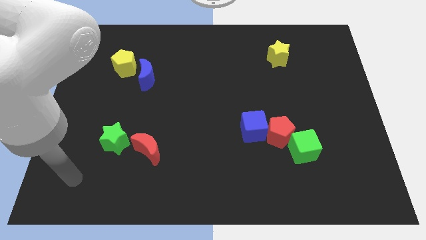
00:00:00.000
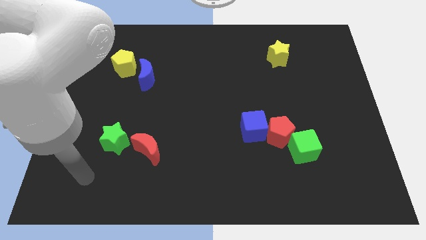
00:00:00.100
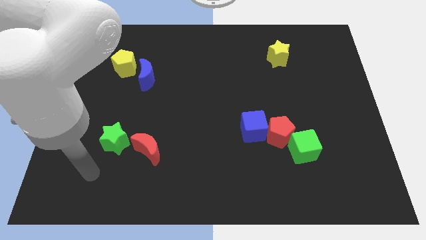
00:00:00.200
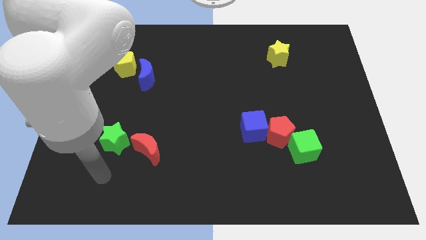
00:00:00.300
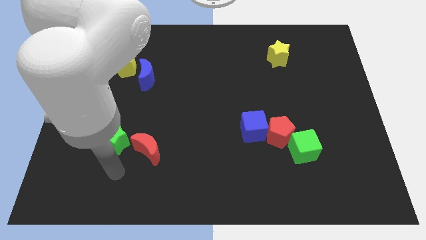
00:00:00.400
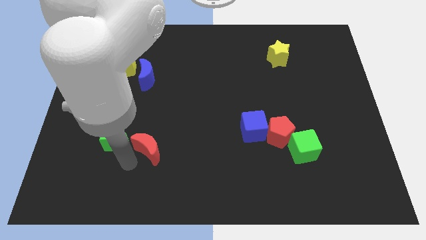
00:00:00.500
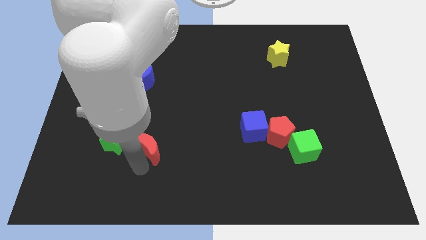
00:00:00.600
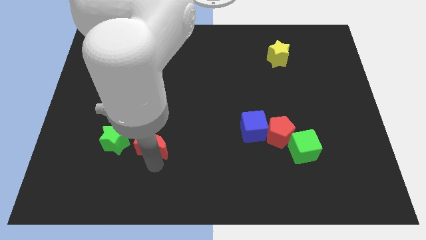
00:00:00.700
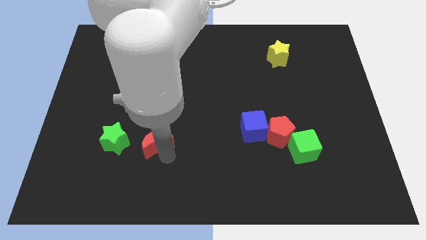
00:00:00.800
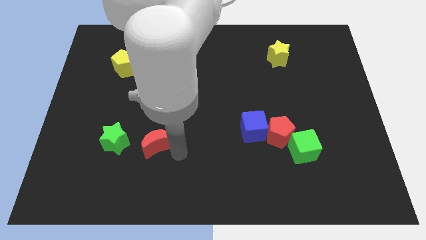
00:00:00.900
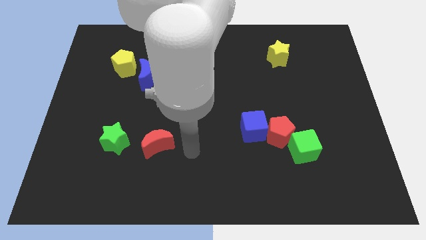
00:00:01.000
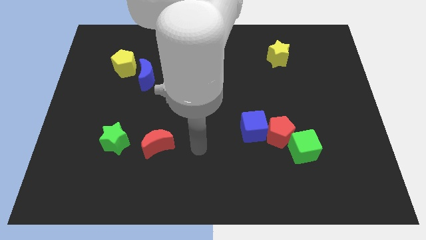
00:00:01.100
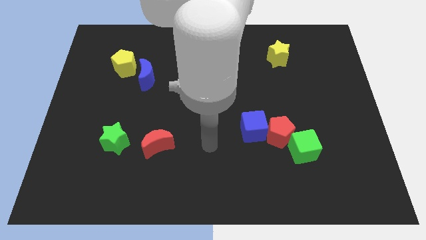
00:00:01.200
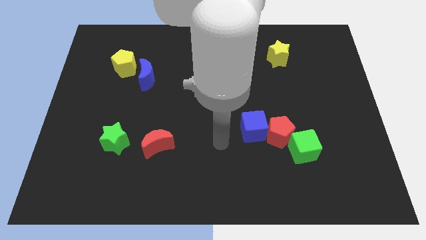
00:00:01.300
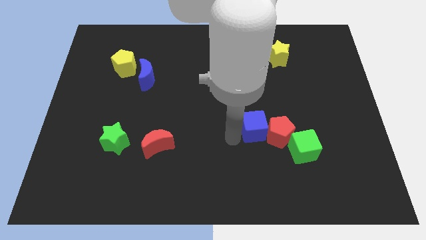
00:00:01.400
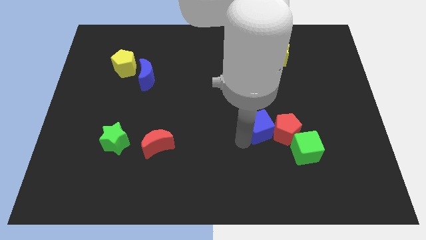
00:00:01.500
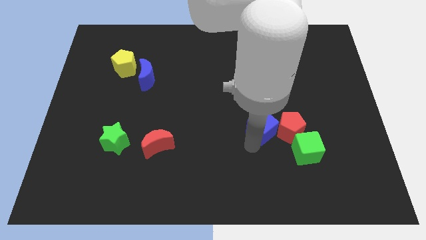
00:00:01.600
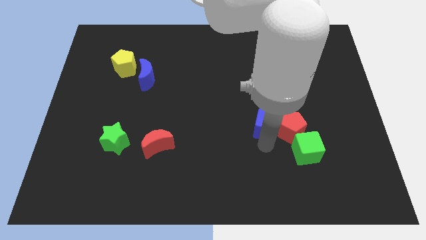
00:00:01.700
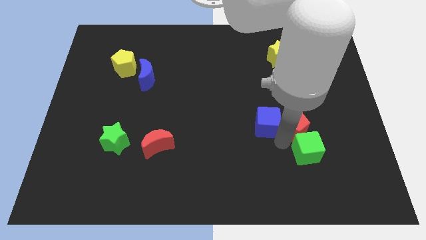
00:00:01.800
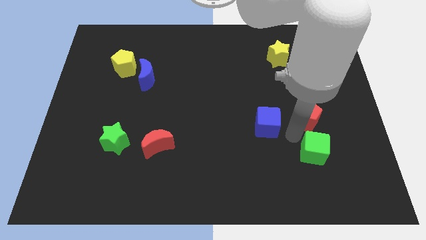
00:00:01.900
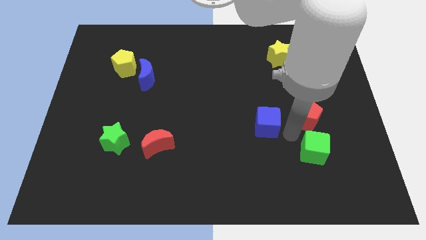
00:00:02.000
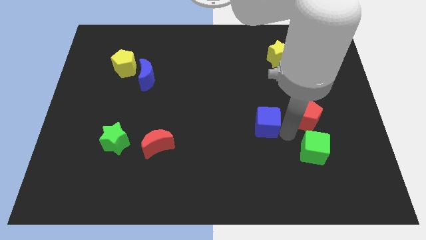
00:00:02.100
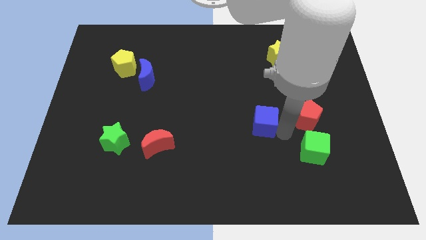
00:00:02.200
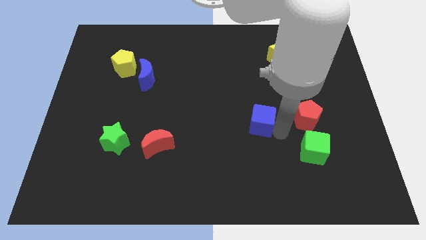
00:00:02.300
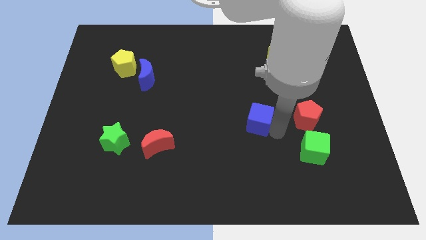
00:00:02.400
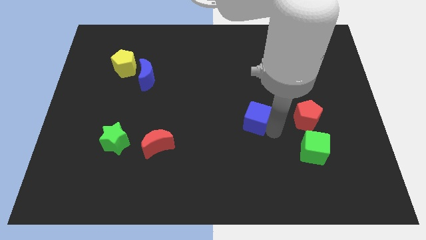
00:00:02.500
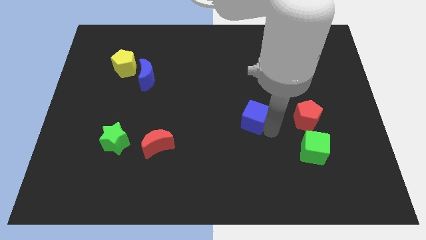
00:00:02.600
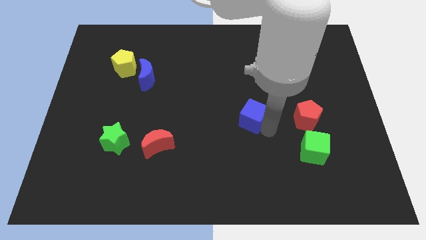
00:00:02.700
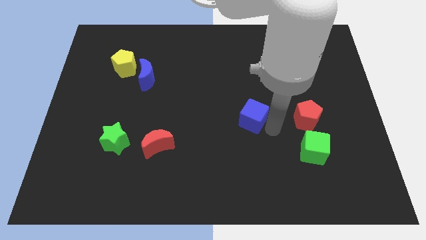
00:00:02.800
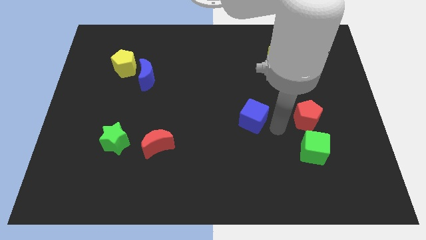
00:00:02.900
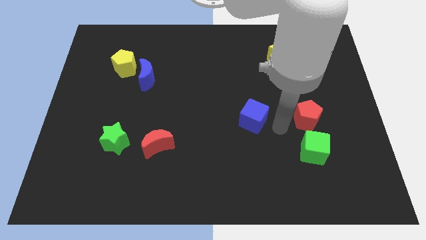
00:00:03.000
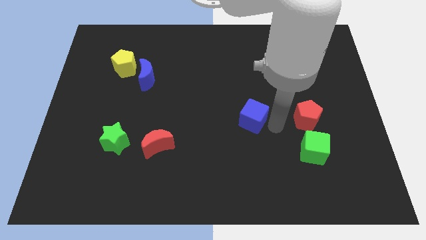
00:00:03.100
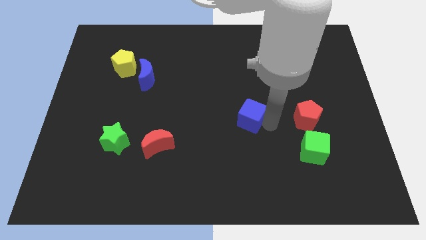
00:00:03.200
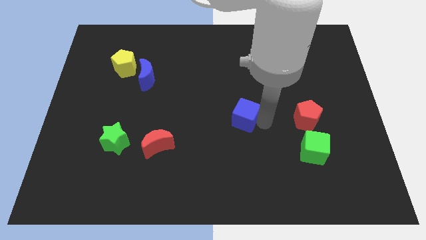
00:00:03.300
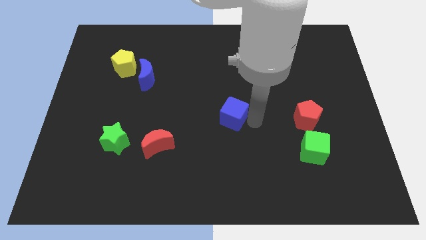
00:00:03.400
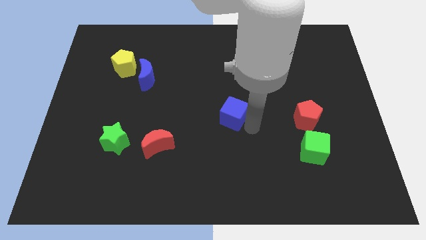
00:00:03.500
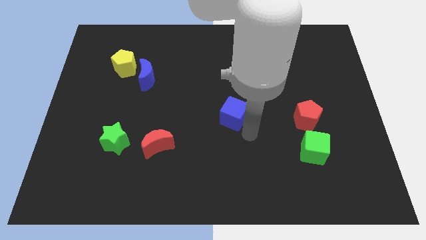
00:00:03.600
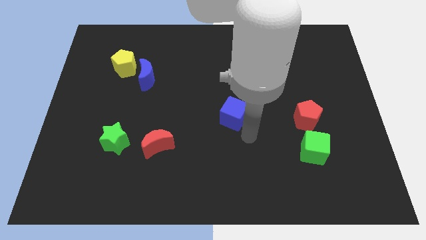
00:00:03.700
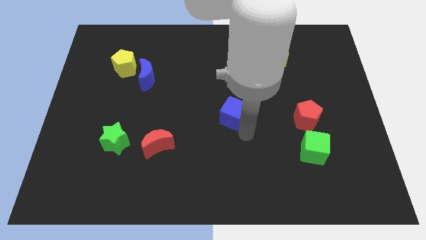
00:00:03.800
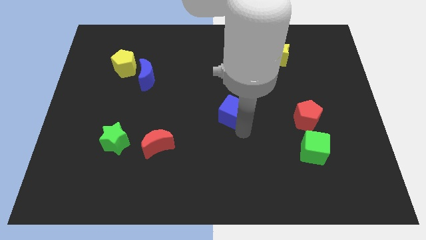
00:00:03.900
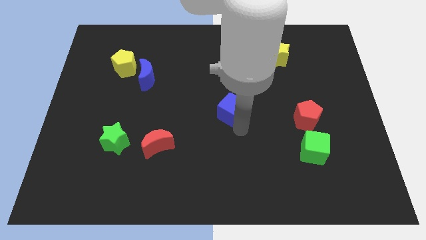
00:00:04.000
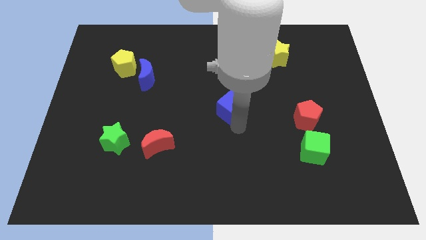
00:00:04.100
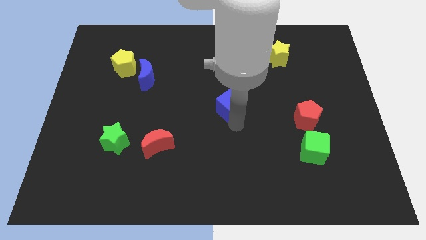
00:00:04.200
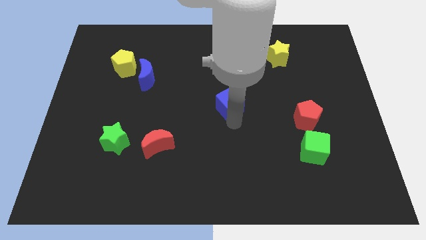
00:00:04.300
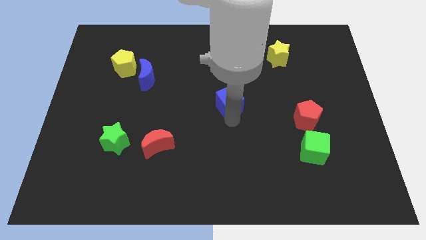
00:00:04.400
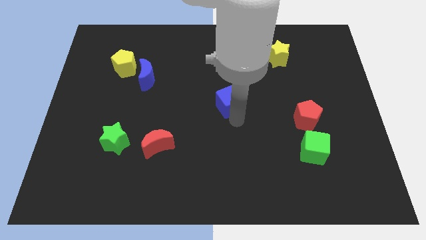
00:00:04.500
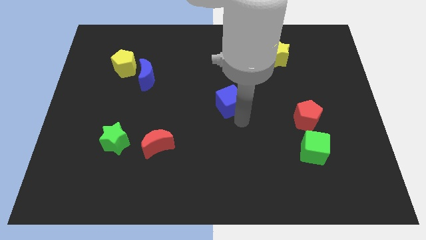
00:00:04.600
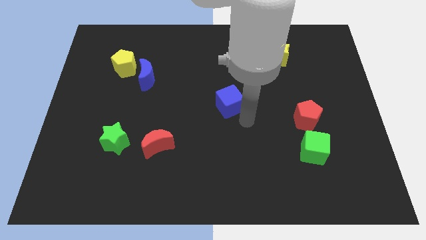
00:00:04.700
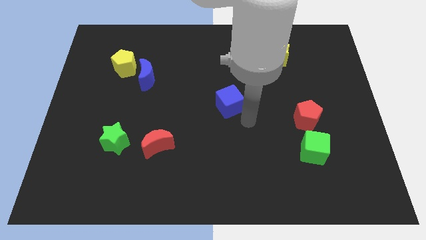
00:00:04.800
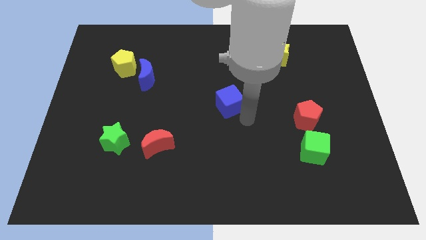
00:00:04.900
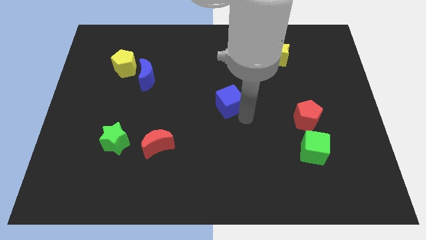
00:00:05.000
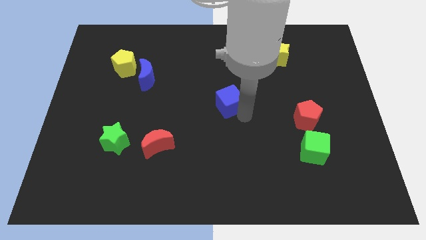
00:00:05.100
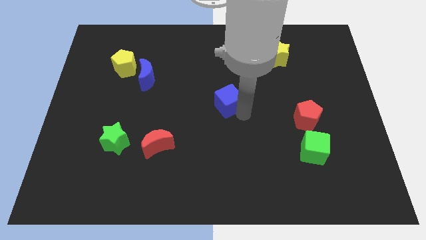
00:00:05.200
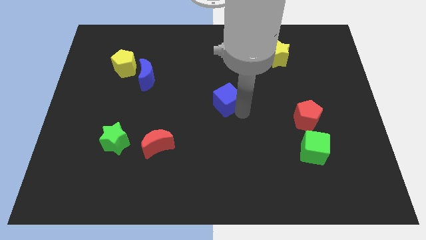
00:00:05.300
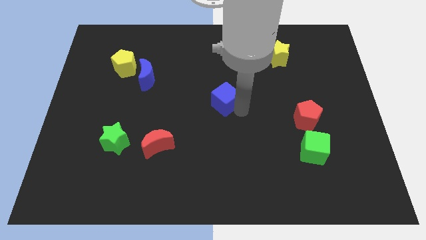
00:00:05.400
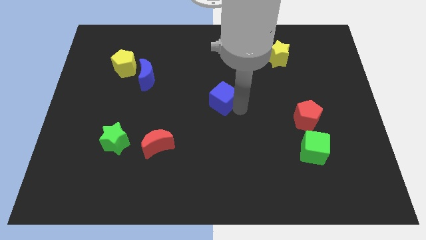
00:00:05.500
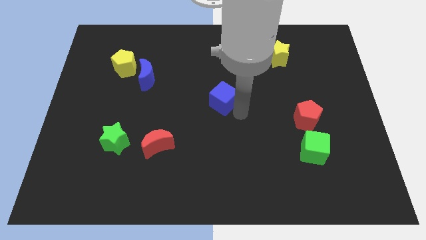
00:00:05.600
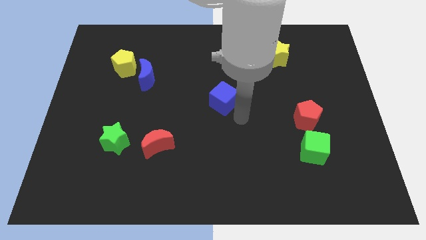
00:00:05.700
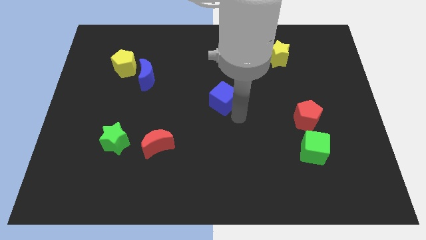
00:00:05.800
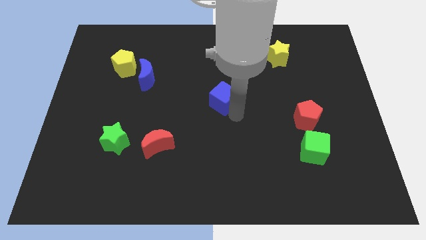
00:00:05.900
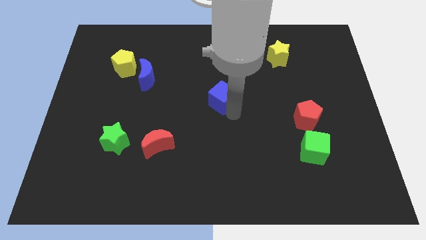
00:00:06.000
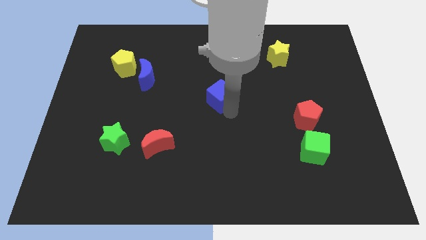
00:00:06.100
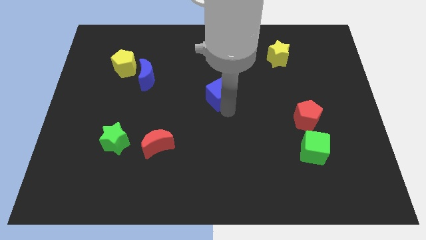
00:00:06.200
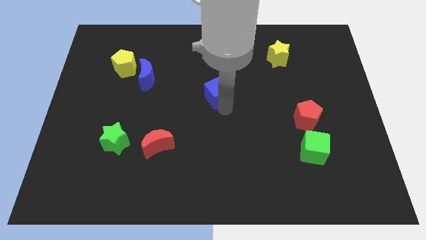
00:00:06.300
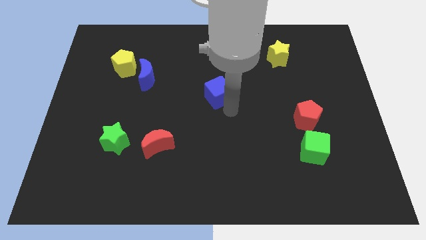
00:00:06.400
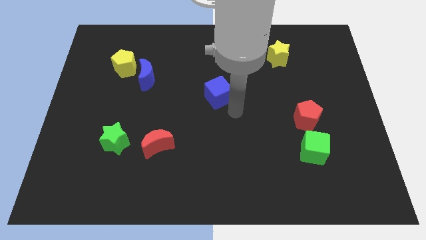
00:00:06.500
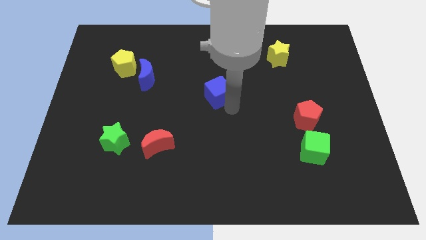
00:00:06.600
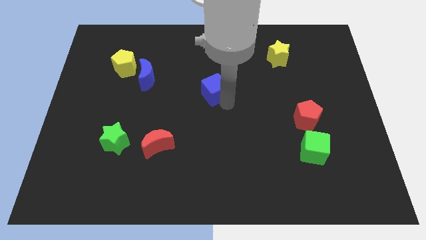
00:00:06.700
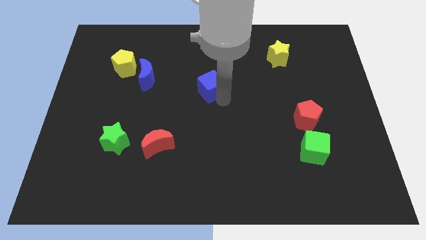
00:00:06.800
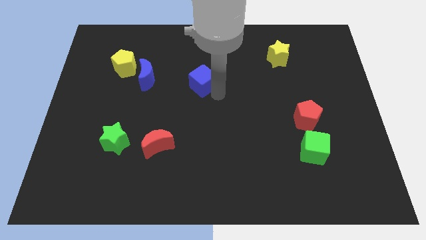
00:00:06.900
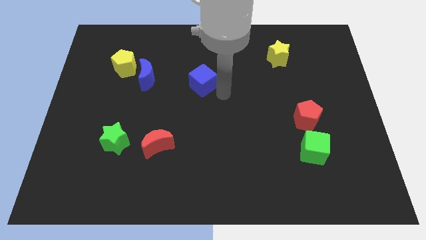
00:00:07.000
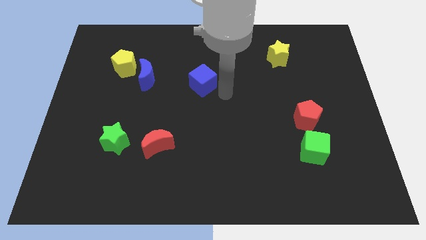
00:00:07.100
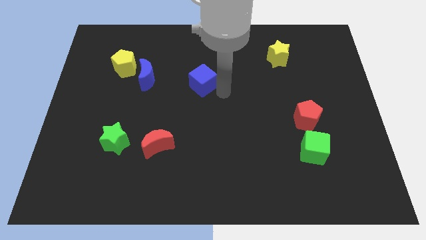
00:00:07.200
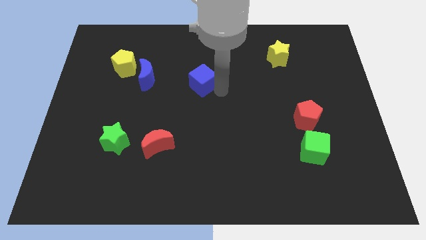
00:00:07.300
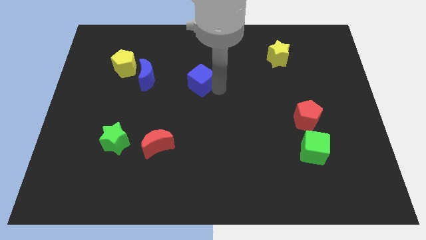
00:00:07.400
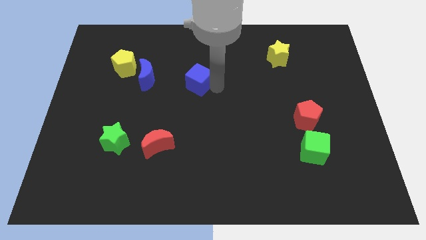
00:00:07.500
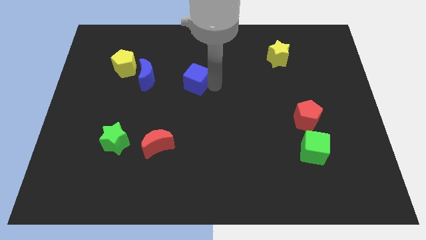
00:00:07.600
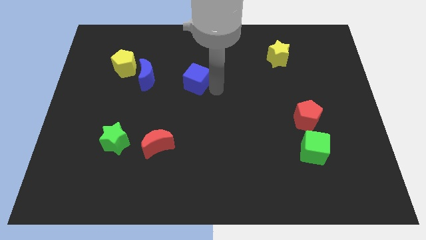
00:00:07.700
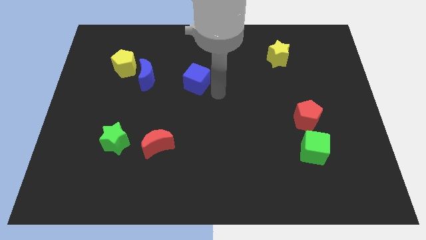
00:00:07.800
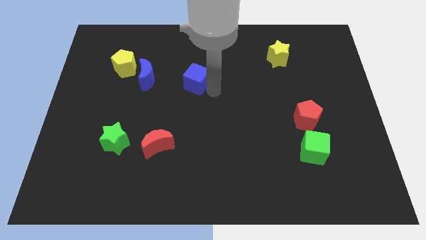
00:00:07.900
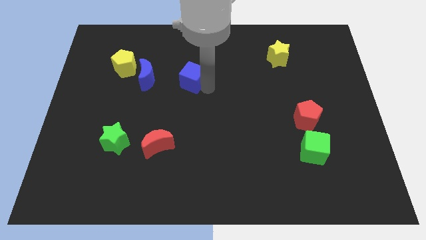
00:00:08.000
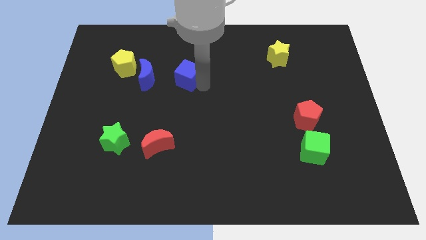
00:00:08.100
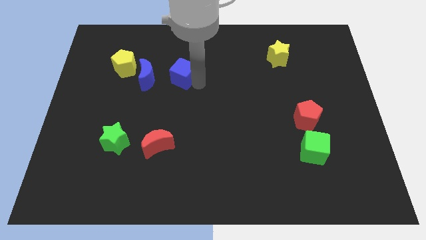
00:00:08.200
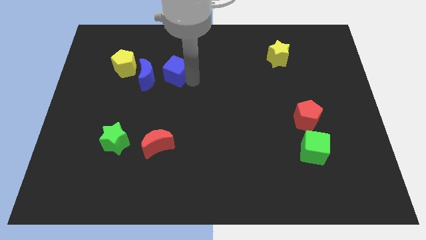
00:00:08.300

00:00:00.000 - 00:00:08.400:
put the blue cube just right of the yellow pentagon
